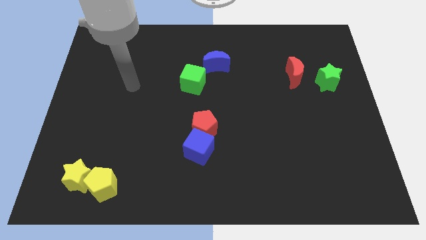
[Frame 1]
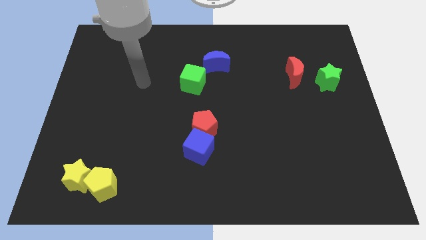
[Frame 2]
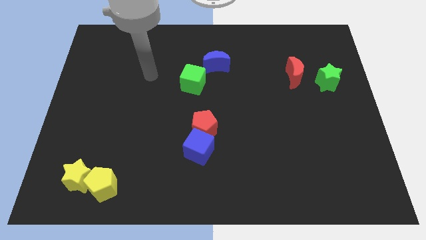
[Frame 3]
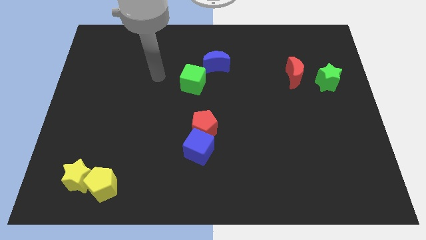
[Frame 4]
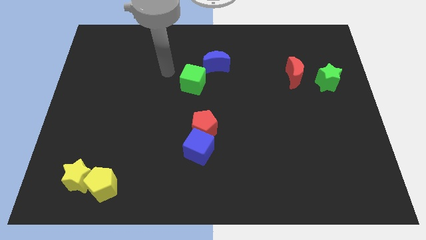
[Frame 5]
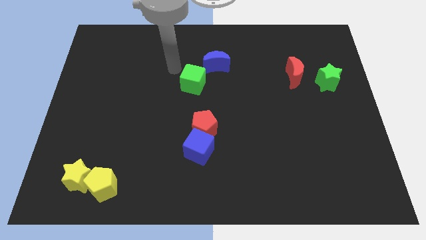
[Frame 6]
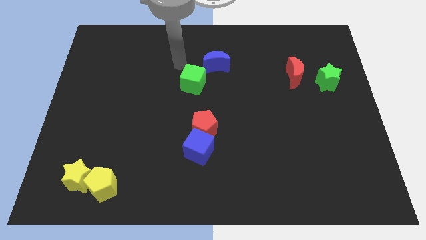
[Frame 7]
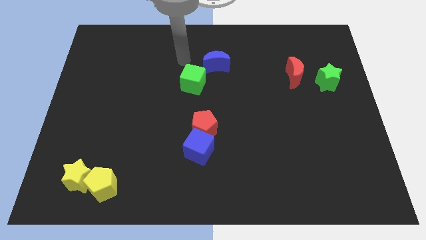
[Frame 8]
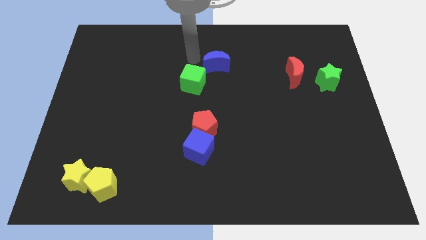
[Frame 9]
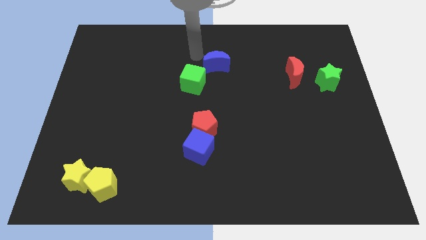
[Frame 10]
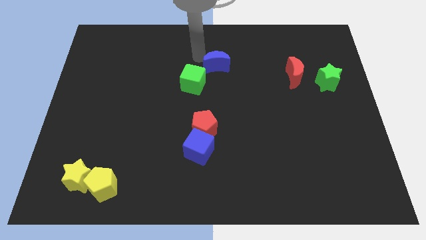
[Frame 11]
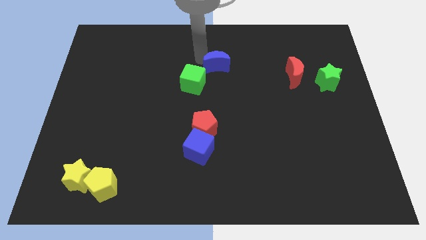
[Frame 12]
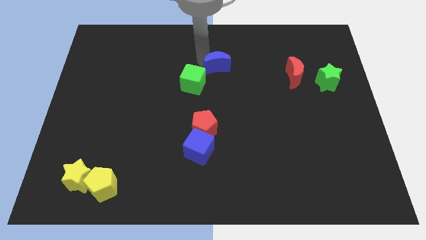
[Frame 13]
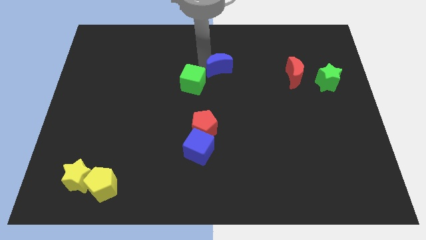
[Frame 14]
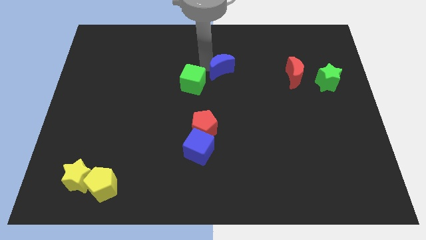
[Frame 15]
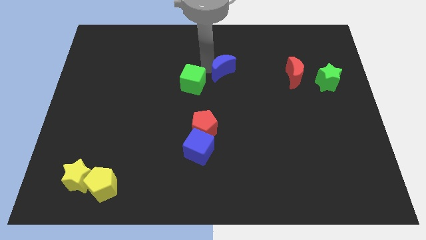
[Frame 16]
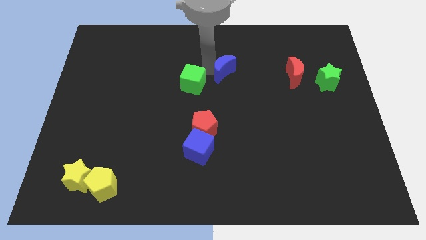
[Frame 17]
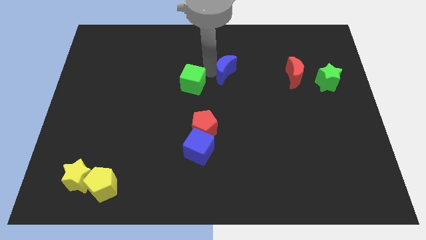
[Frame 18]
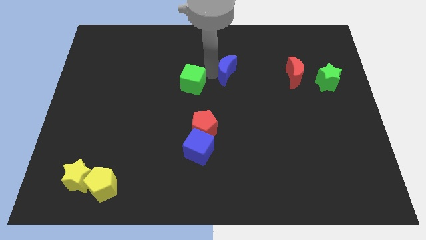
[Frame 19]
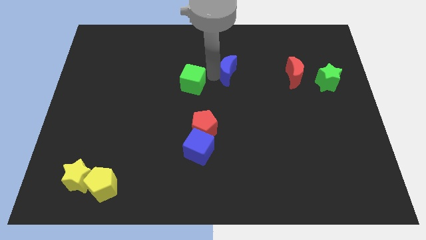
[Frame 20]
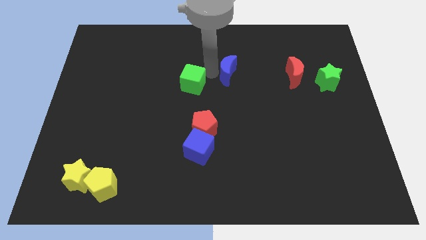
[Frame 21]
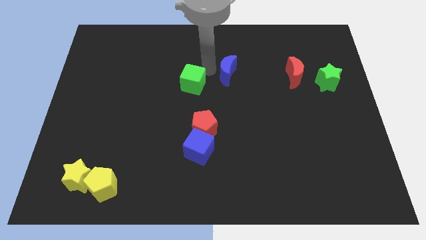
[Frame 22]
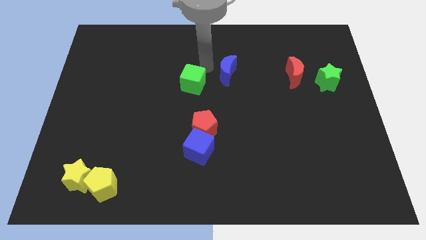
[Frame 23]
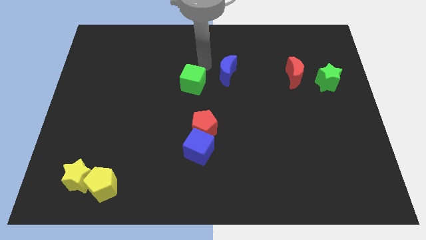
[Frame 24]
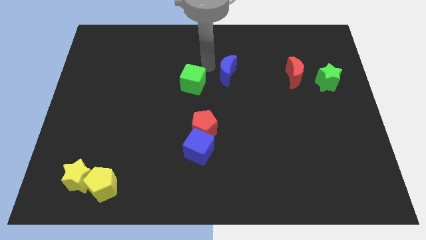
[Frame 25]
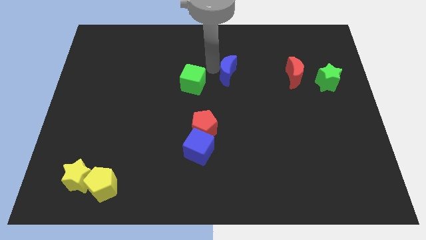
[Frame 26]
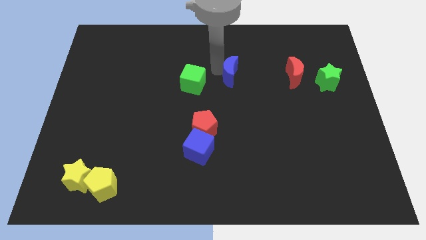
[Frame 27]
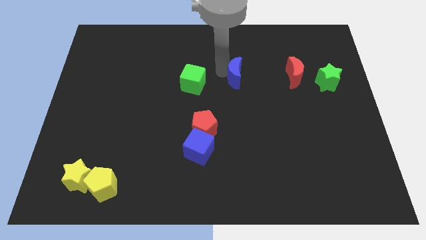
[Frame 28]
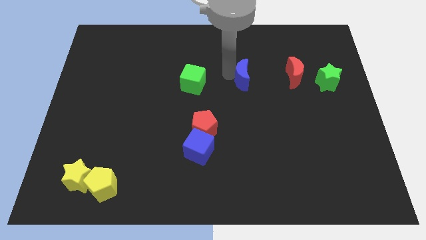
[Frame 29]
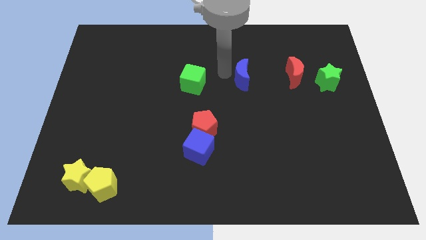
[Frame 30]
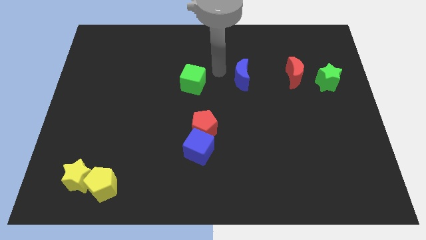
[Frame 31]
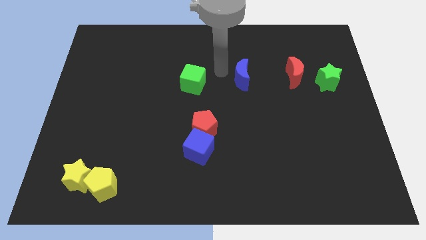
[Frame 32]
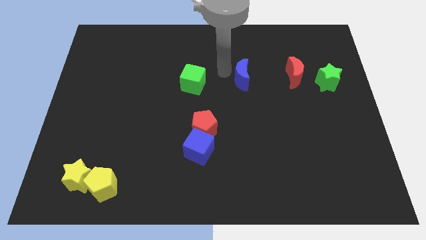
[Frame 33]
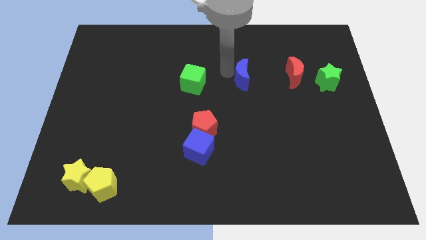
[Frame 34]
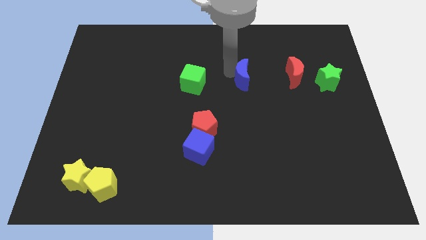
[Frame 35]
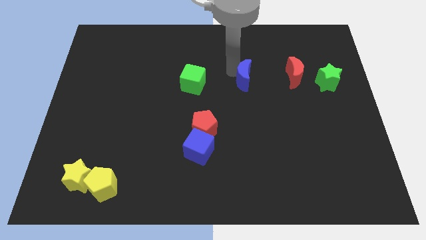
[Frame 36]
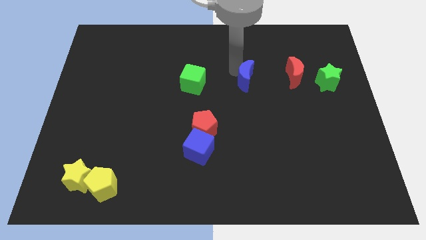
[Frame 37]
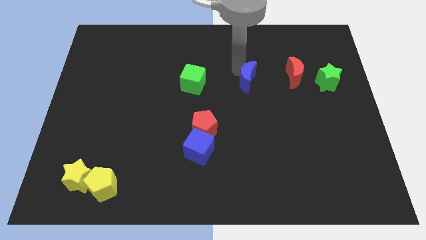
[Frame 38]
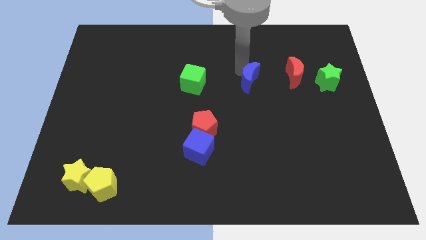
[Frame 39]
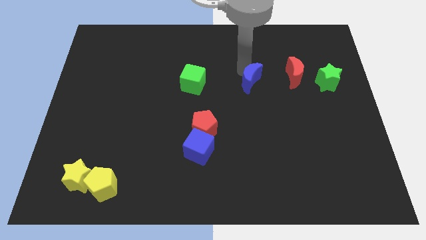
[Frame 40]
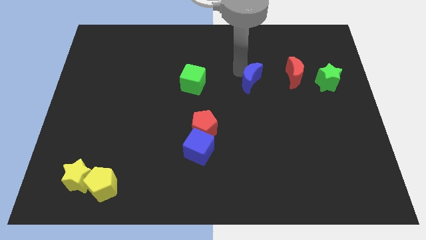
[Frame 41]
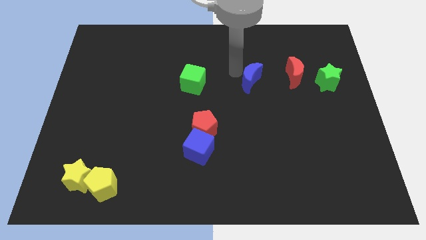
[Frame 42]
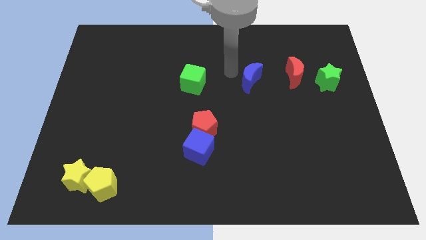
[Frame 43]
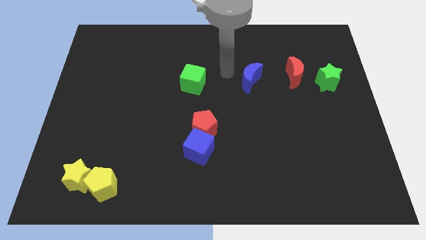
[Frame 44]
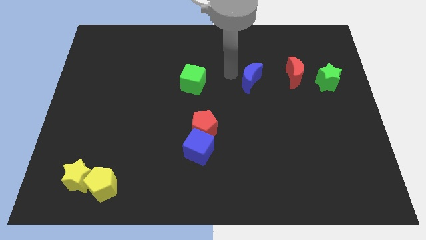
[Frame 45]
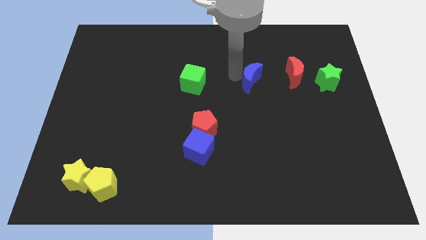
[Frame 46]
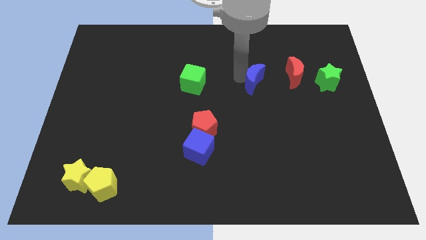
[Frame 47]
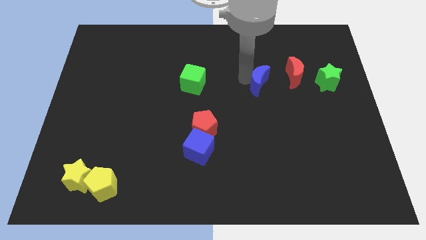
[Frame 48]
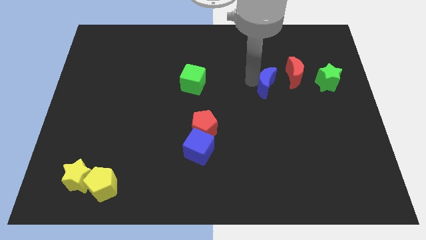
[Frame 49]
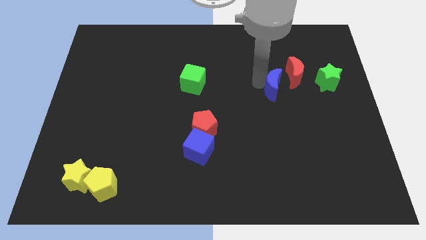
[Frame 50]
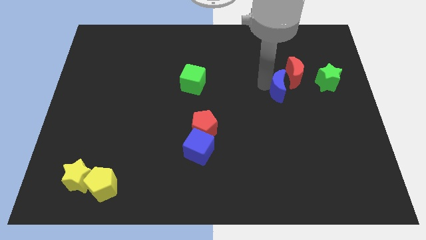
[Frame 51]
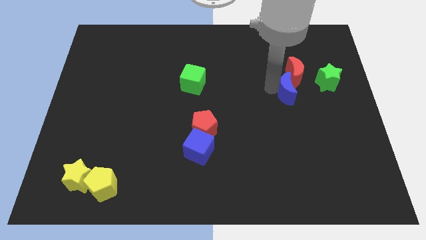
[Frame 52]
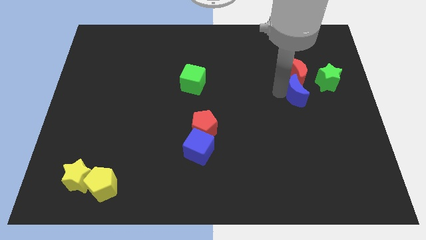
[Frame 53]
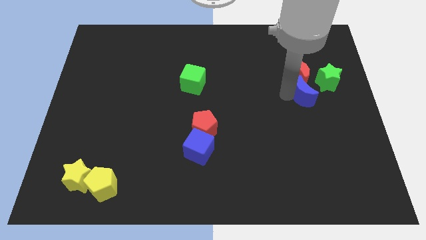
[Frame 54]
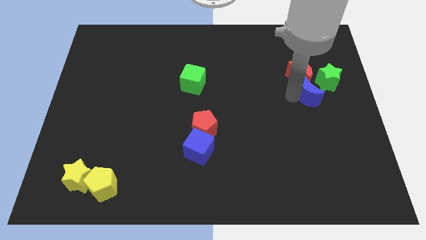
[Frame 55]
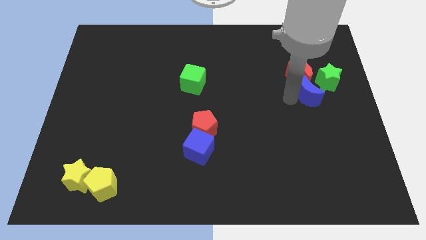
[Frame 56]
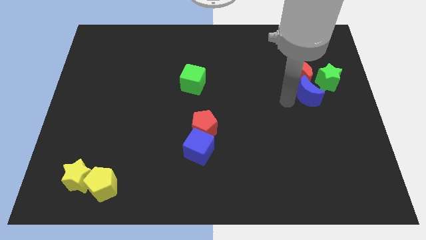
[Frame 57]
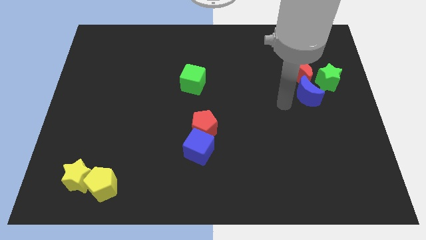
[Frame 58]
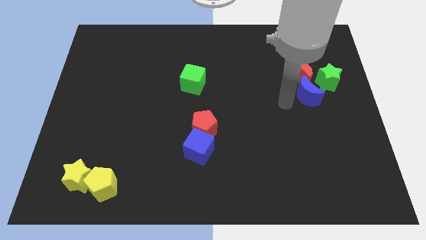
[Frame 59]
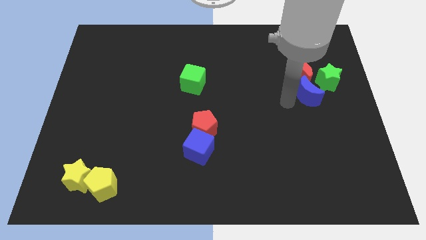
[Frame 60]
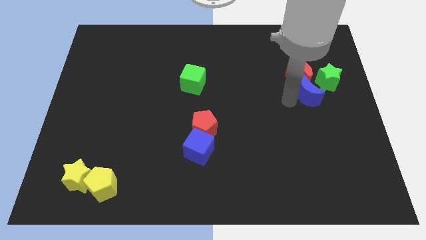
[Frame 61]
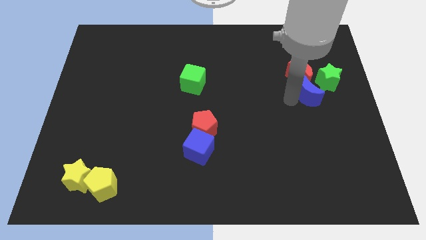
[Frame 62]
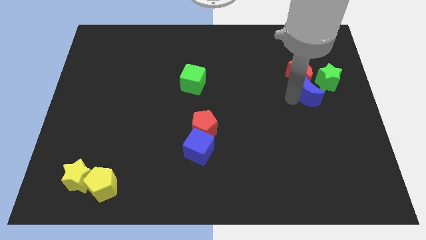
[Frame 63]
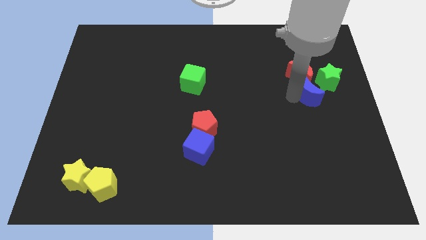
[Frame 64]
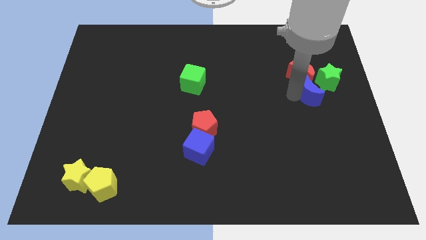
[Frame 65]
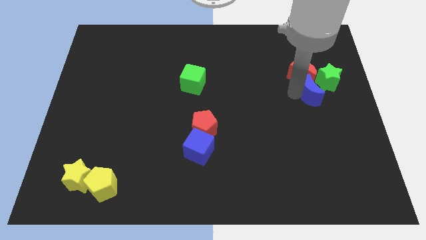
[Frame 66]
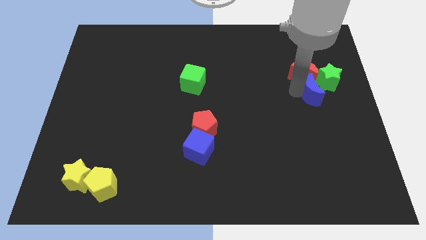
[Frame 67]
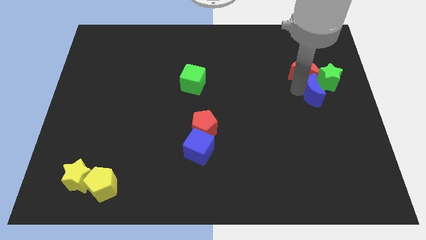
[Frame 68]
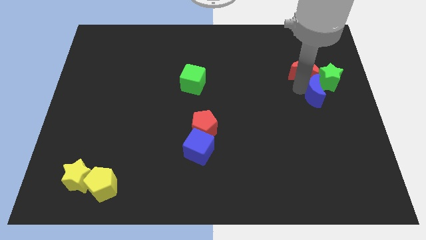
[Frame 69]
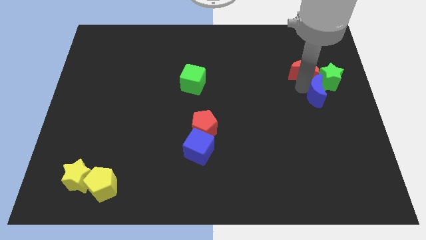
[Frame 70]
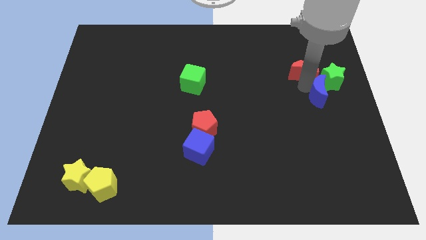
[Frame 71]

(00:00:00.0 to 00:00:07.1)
put the blue moon to the center right

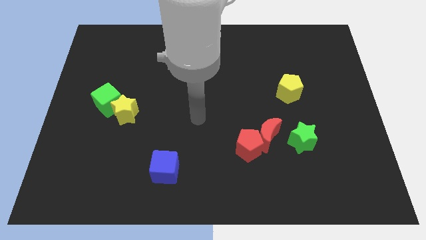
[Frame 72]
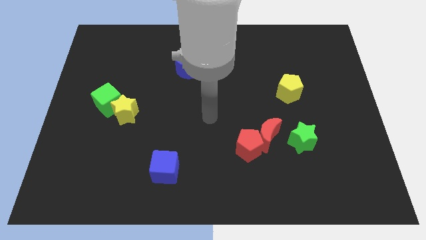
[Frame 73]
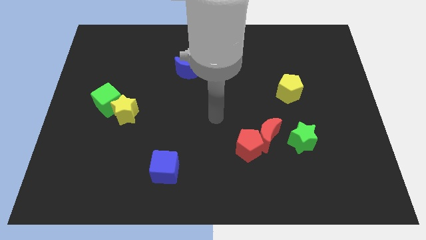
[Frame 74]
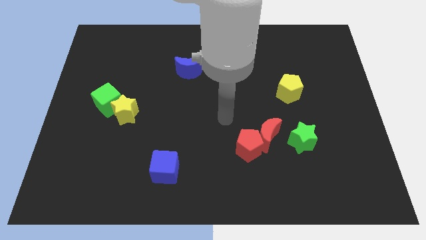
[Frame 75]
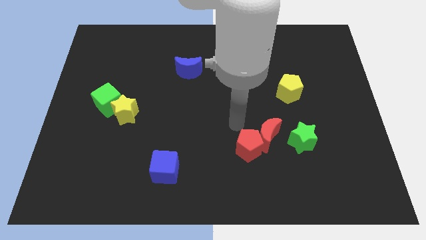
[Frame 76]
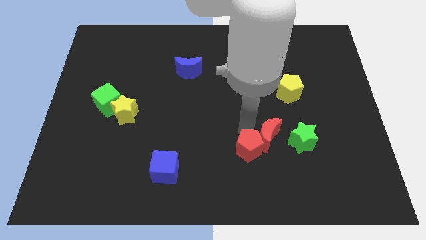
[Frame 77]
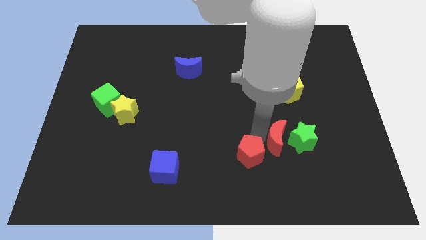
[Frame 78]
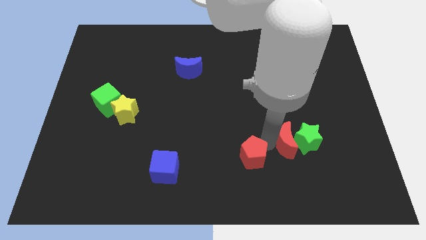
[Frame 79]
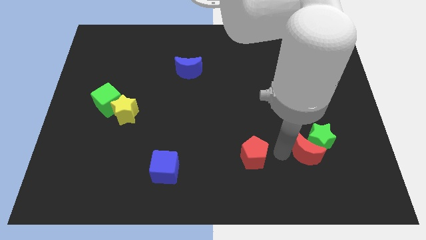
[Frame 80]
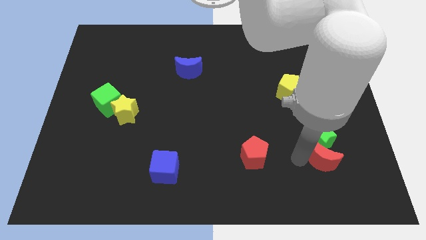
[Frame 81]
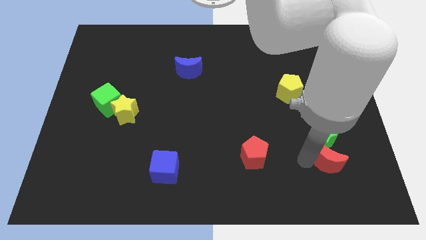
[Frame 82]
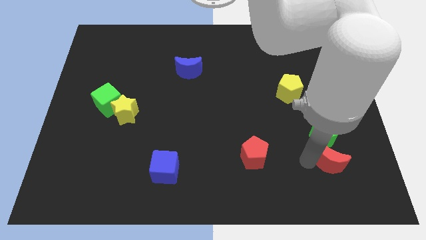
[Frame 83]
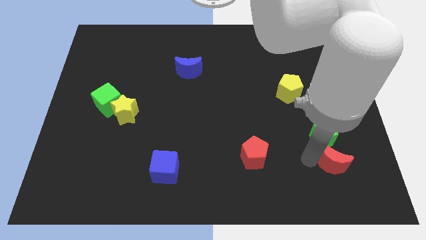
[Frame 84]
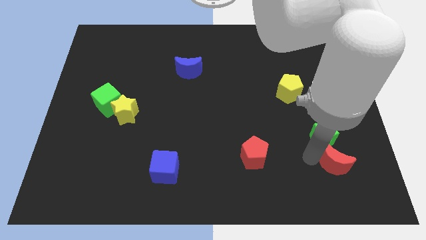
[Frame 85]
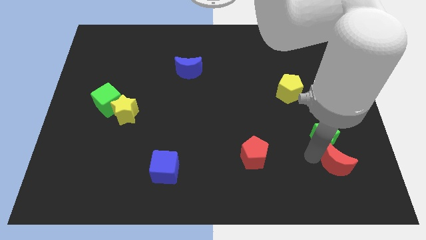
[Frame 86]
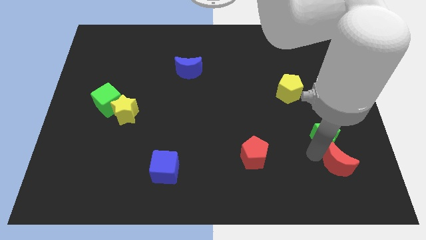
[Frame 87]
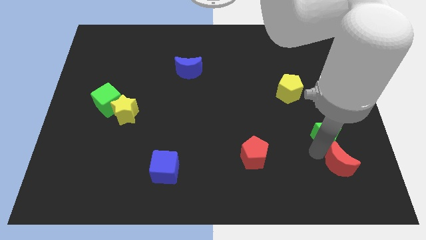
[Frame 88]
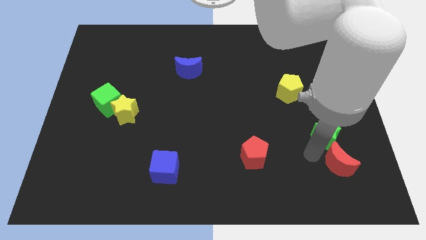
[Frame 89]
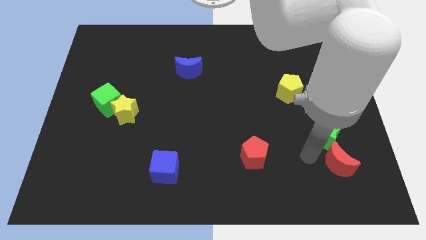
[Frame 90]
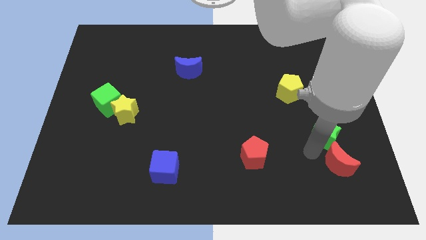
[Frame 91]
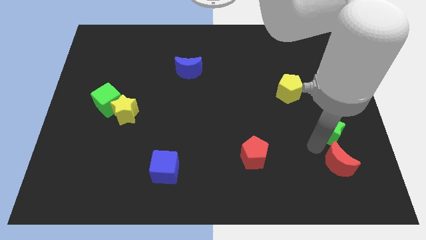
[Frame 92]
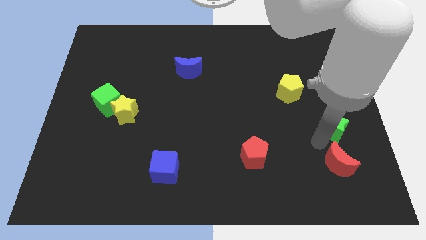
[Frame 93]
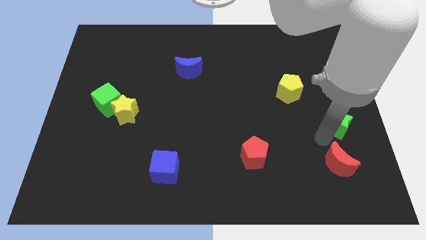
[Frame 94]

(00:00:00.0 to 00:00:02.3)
slide the green star to the right side
